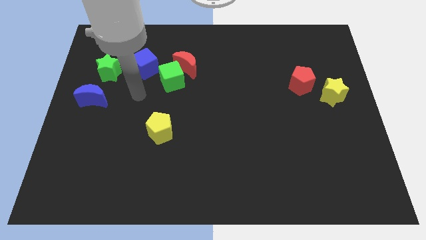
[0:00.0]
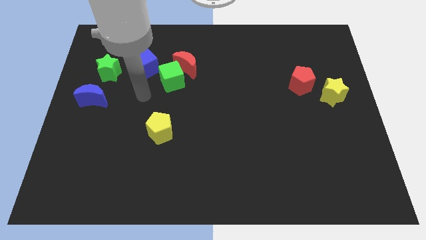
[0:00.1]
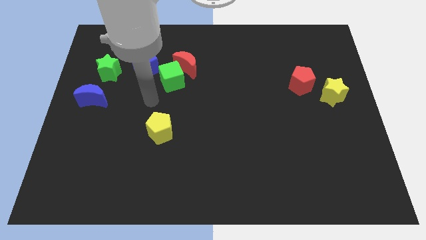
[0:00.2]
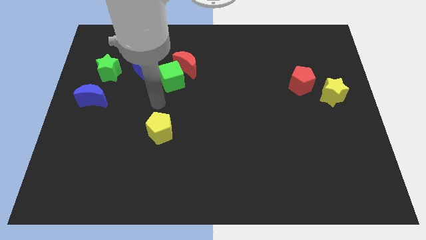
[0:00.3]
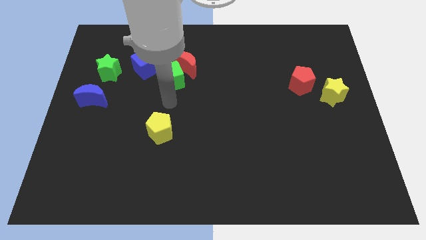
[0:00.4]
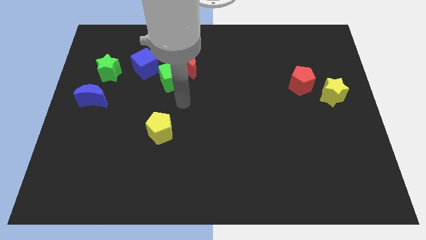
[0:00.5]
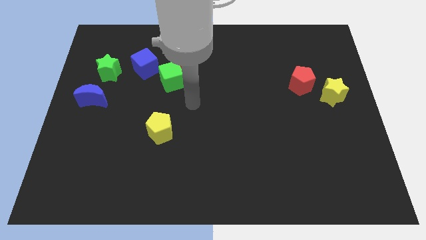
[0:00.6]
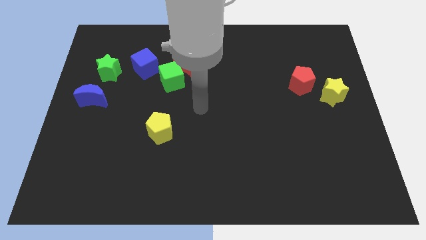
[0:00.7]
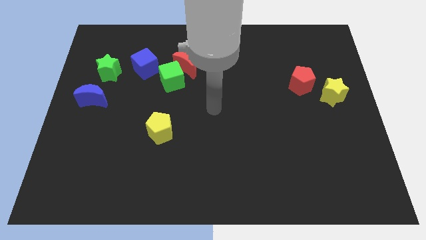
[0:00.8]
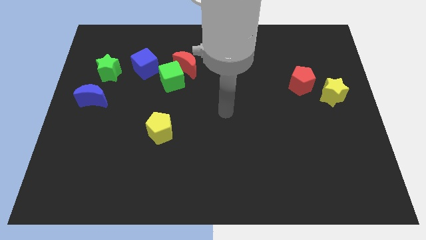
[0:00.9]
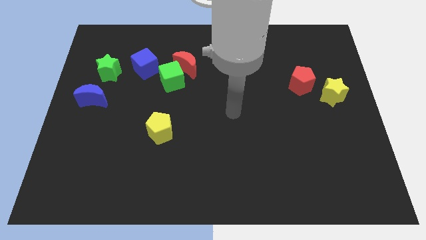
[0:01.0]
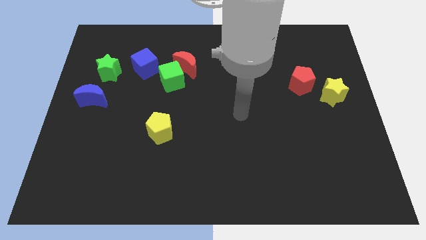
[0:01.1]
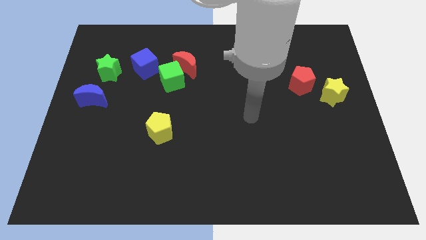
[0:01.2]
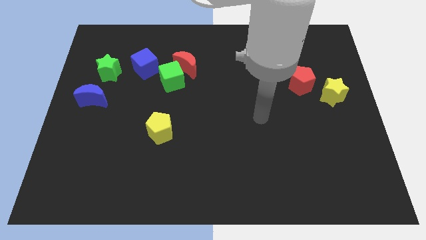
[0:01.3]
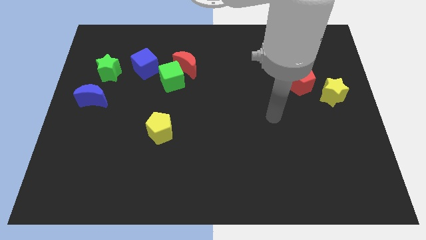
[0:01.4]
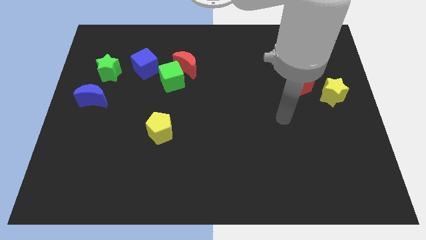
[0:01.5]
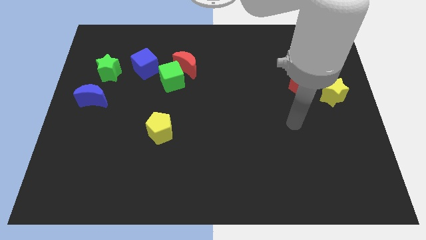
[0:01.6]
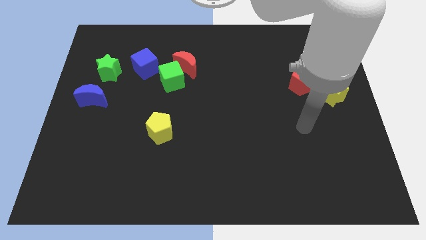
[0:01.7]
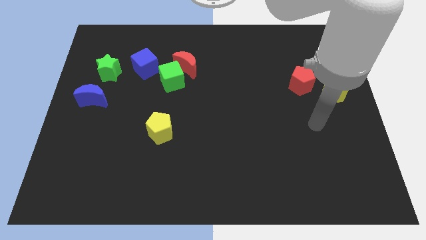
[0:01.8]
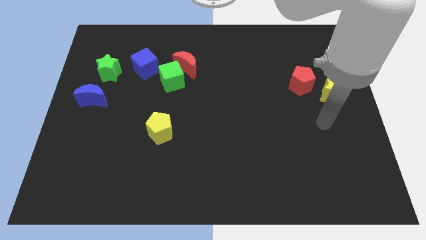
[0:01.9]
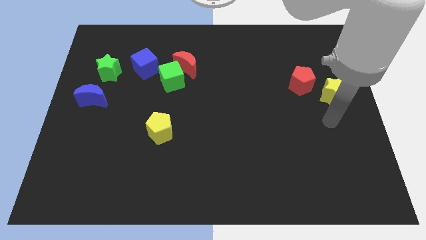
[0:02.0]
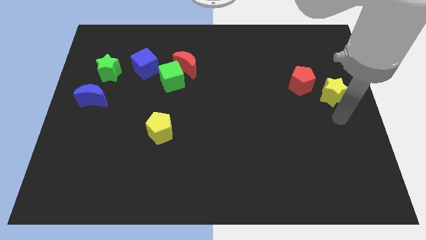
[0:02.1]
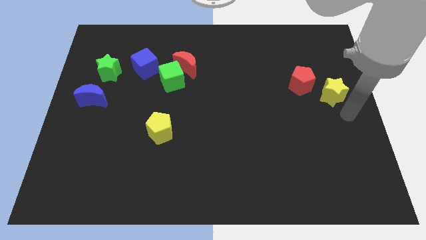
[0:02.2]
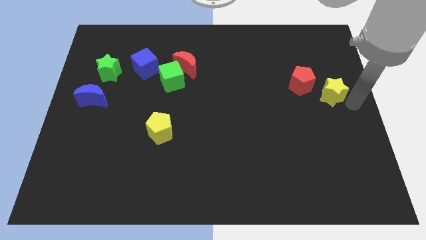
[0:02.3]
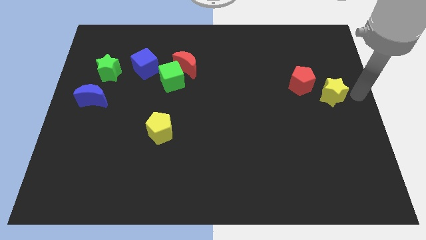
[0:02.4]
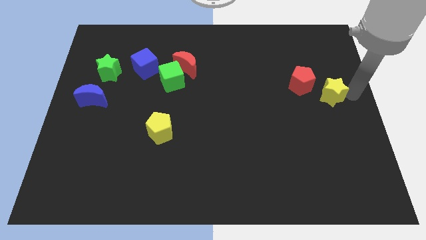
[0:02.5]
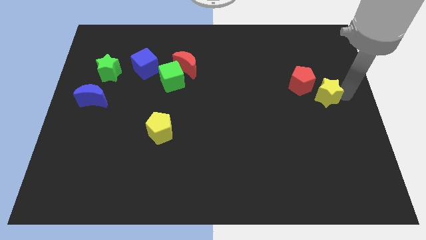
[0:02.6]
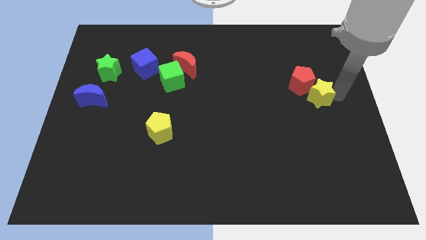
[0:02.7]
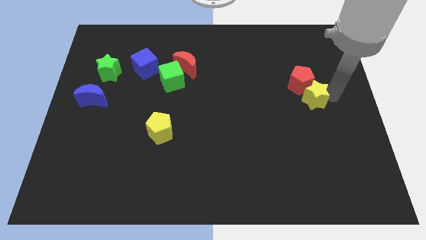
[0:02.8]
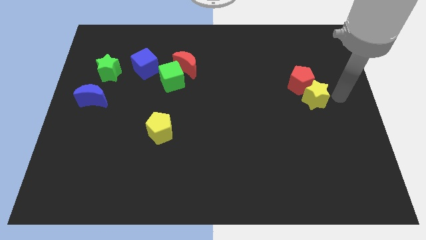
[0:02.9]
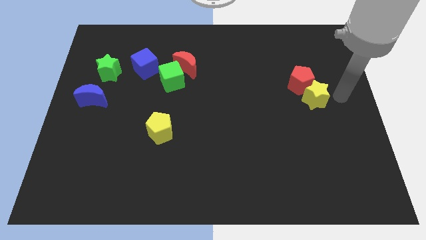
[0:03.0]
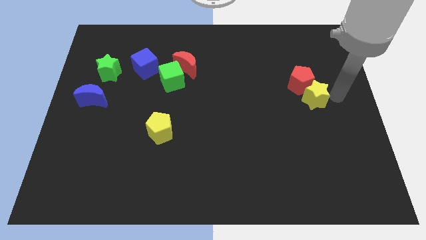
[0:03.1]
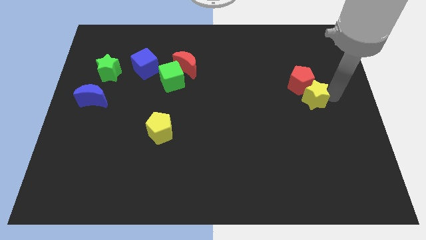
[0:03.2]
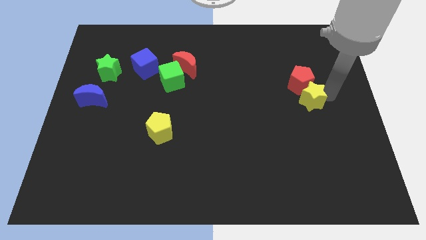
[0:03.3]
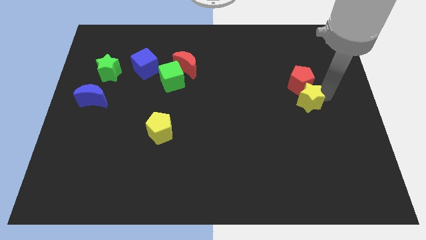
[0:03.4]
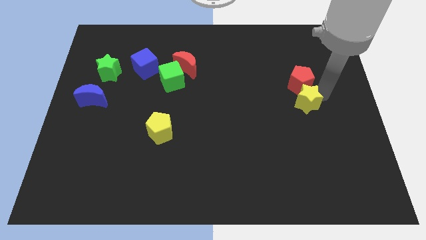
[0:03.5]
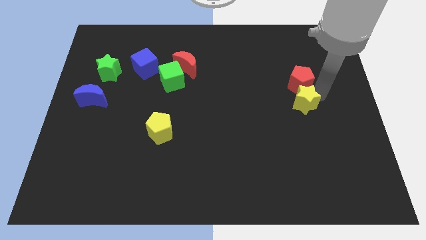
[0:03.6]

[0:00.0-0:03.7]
push the yellow star left a bit

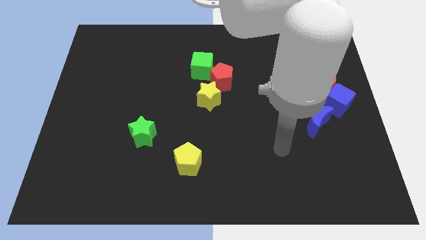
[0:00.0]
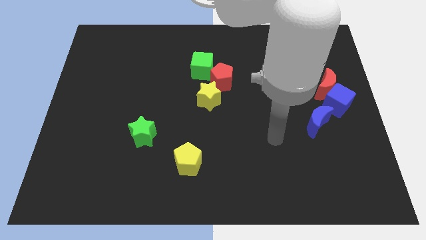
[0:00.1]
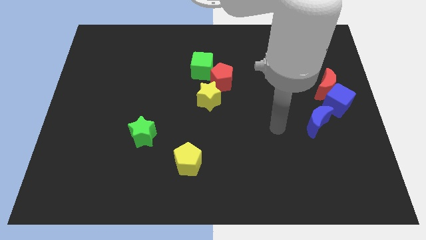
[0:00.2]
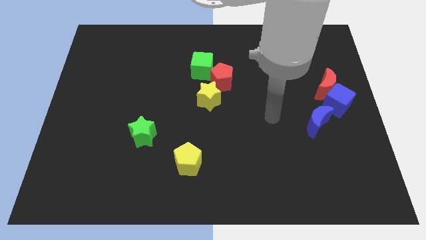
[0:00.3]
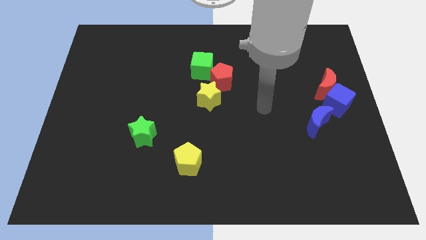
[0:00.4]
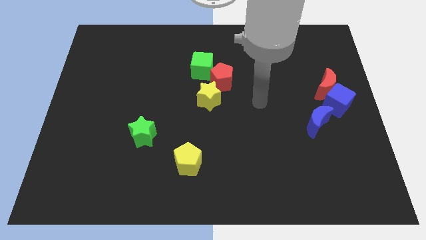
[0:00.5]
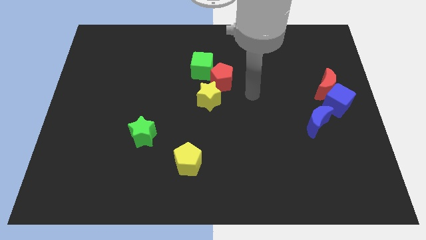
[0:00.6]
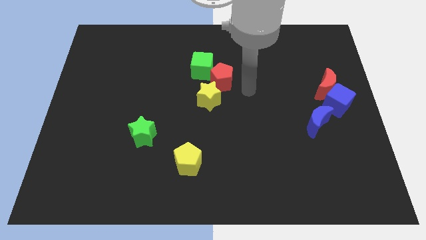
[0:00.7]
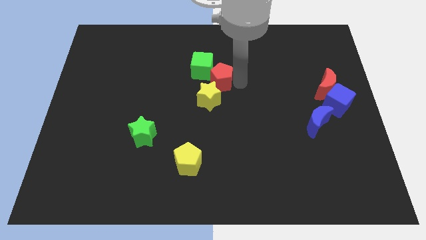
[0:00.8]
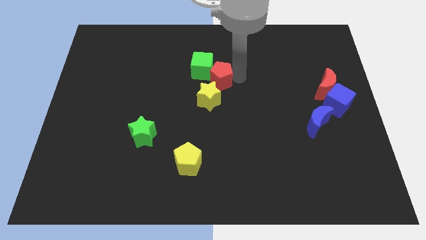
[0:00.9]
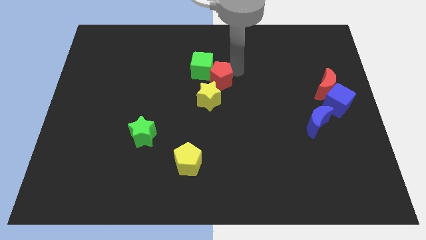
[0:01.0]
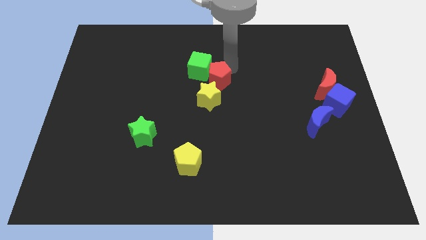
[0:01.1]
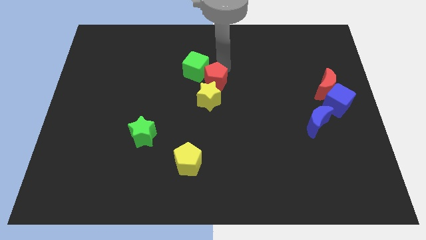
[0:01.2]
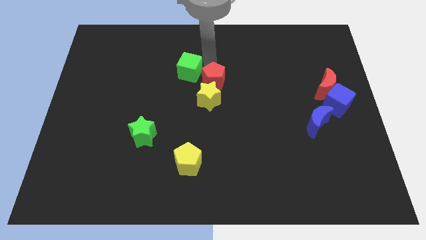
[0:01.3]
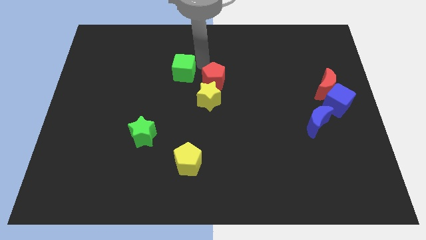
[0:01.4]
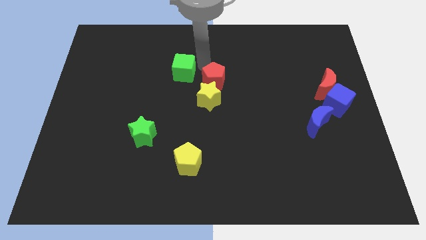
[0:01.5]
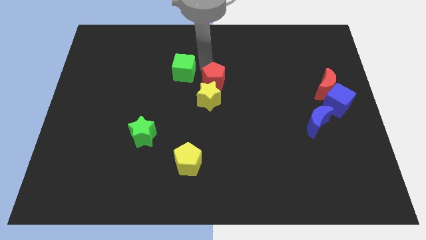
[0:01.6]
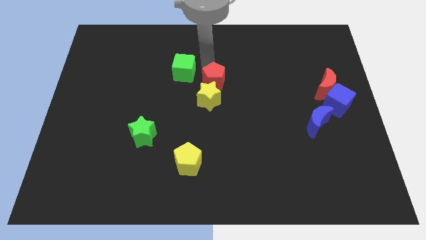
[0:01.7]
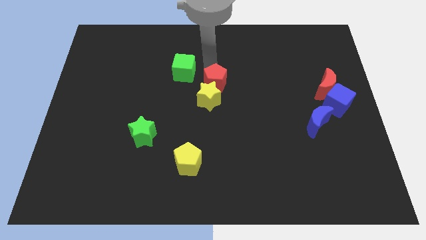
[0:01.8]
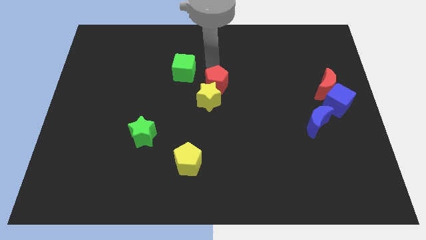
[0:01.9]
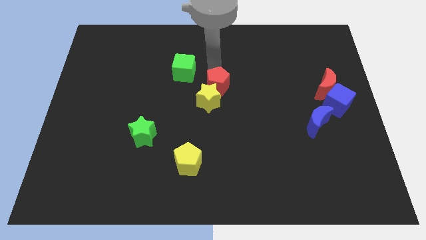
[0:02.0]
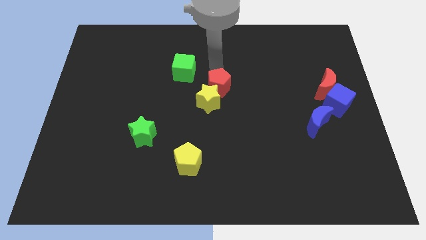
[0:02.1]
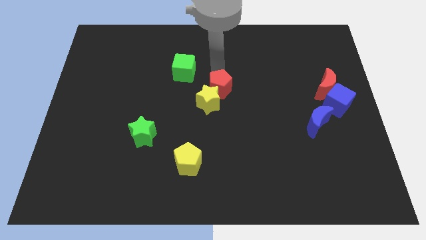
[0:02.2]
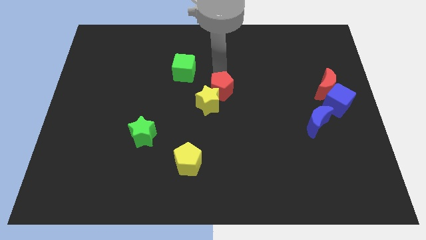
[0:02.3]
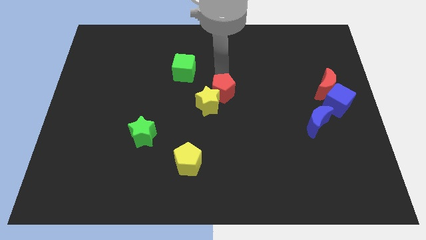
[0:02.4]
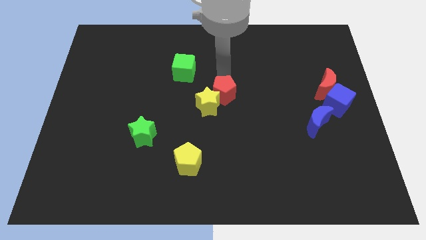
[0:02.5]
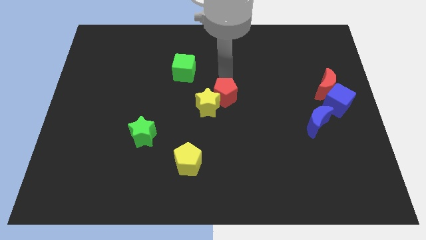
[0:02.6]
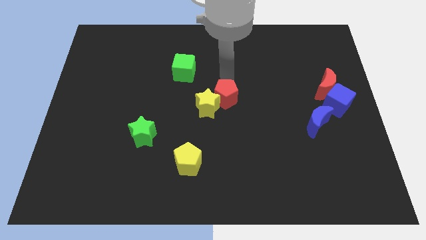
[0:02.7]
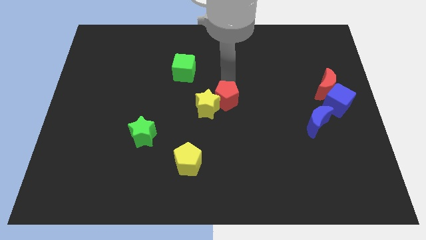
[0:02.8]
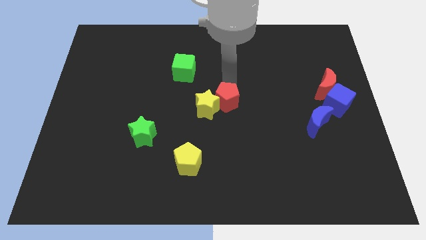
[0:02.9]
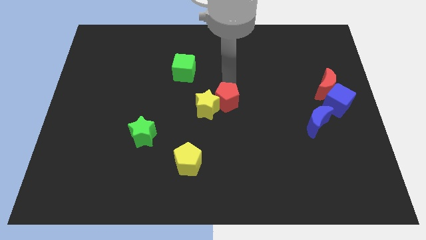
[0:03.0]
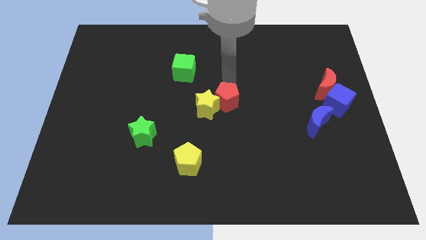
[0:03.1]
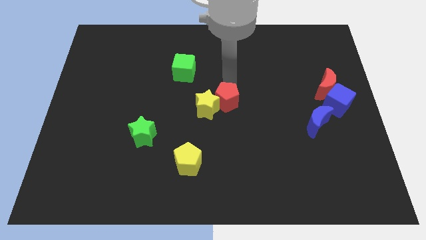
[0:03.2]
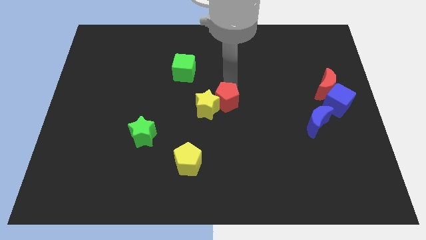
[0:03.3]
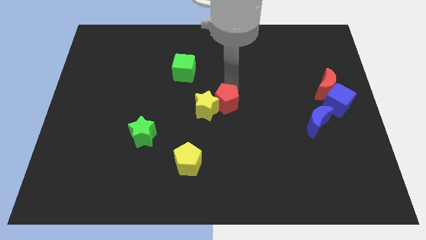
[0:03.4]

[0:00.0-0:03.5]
push the red pentagon downwards a little

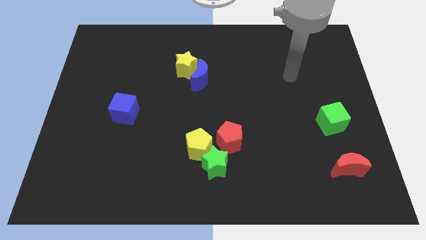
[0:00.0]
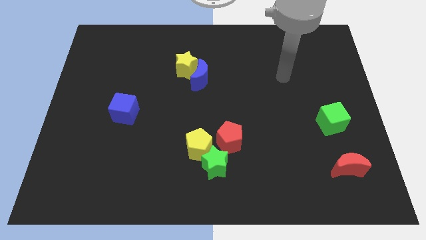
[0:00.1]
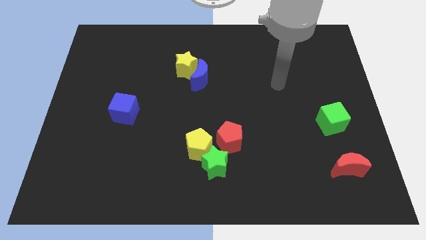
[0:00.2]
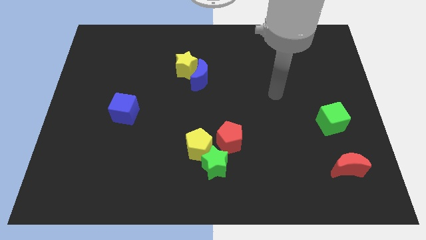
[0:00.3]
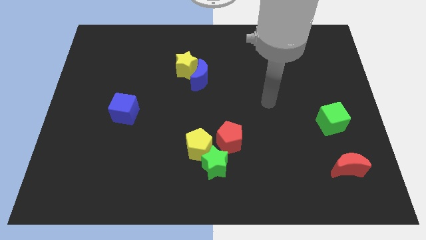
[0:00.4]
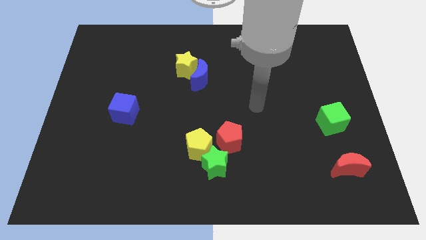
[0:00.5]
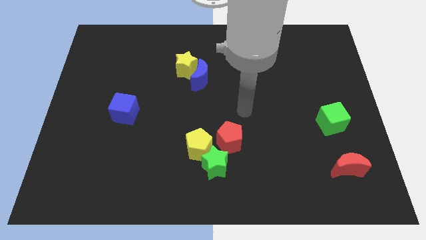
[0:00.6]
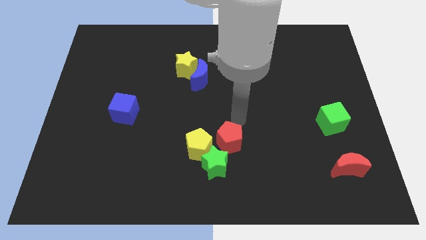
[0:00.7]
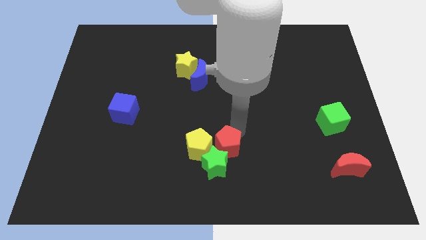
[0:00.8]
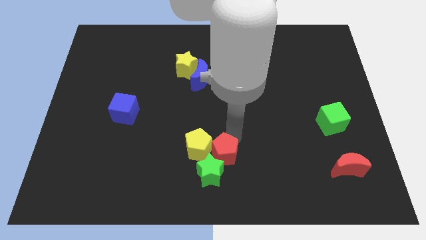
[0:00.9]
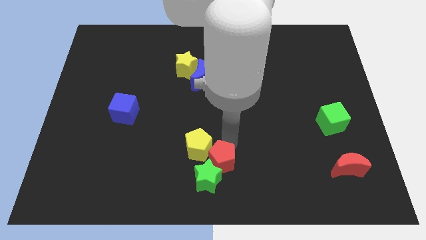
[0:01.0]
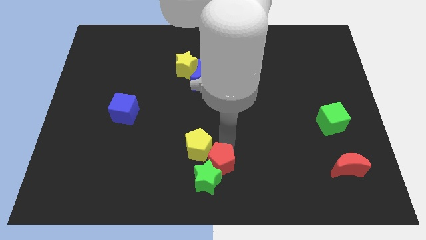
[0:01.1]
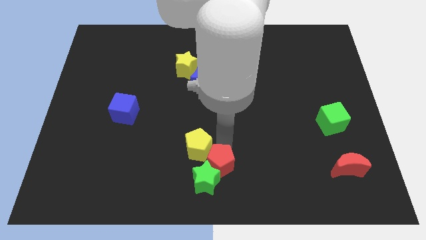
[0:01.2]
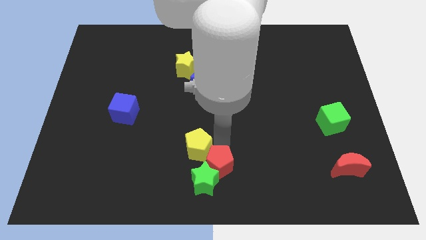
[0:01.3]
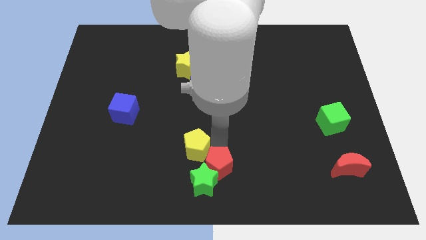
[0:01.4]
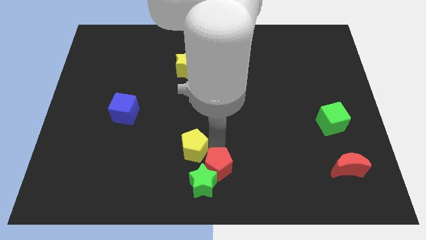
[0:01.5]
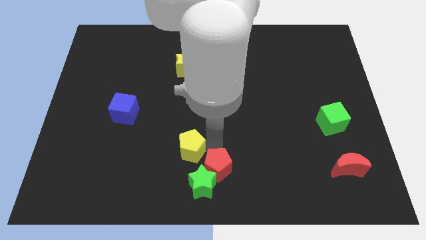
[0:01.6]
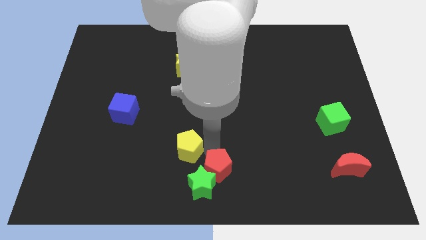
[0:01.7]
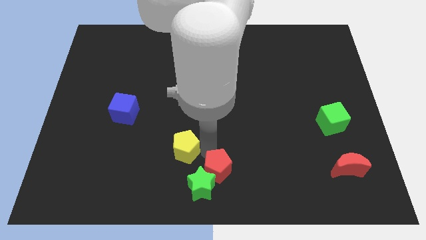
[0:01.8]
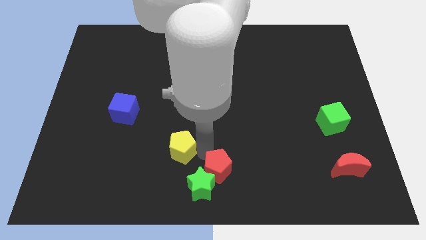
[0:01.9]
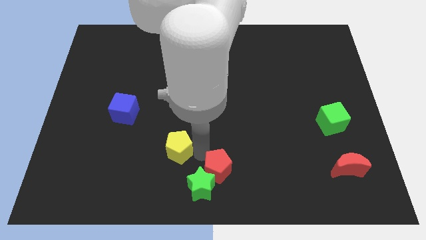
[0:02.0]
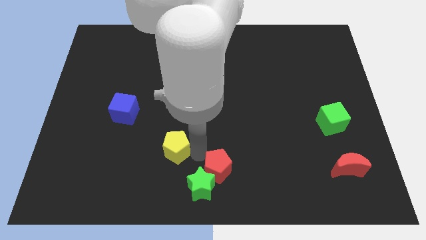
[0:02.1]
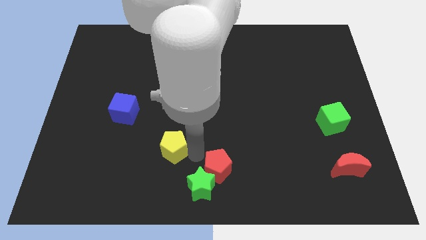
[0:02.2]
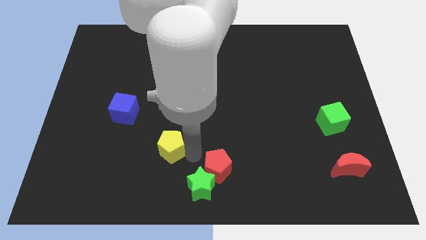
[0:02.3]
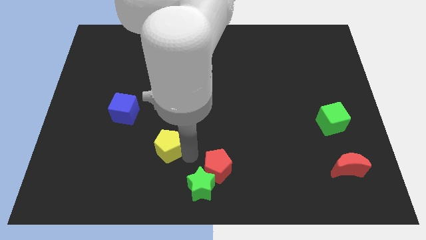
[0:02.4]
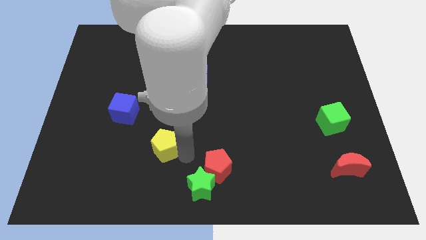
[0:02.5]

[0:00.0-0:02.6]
slide the yellow pentagon to the left a little bit
